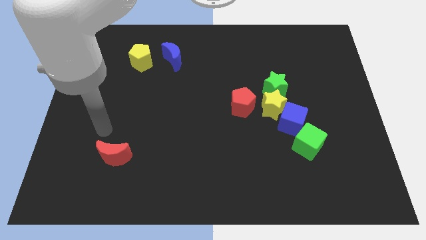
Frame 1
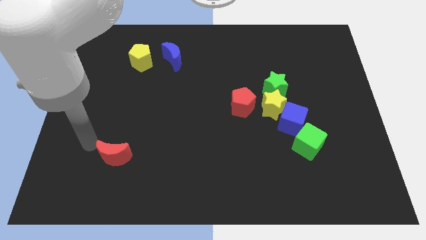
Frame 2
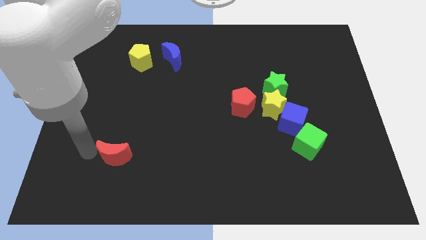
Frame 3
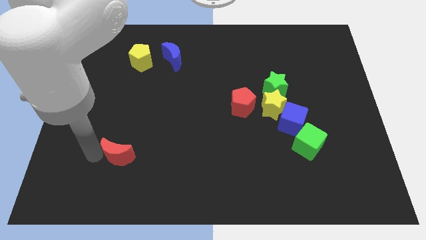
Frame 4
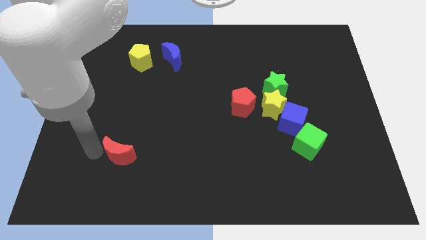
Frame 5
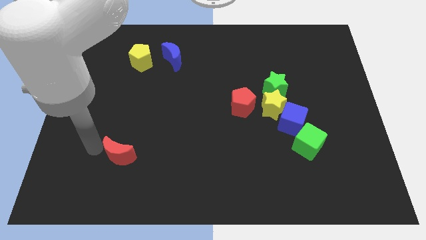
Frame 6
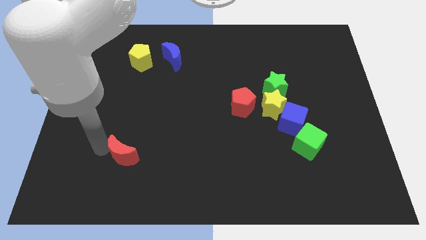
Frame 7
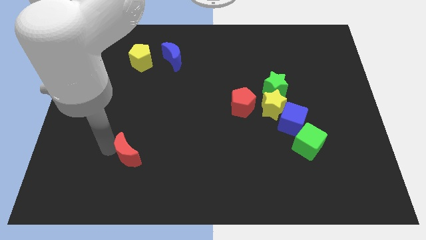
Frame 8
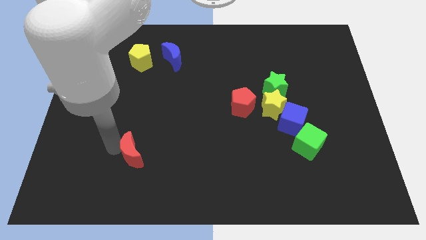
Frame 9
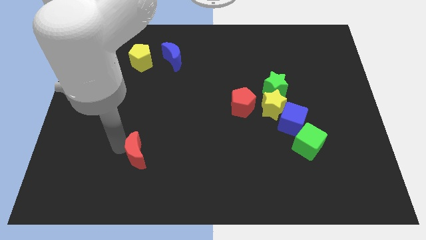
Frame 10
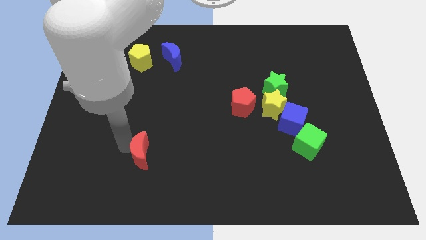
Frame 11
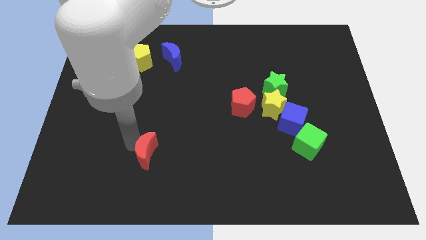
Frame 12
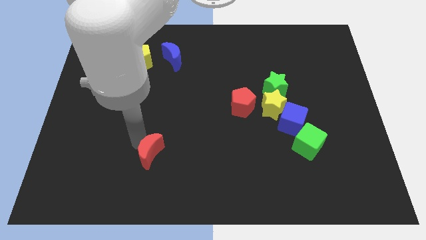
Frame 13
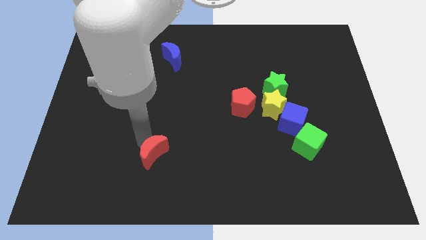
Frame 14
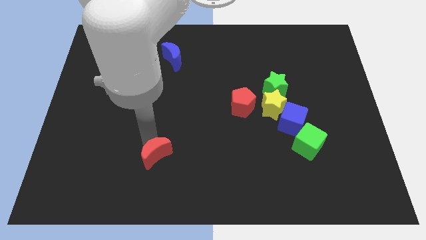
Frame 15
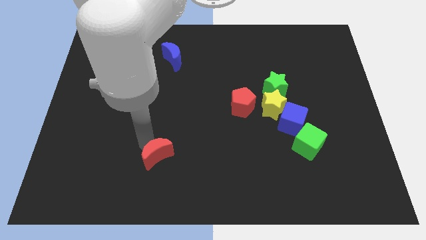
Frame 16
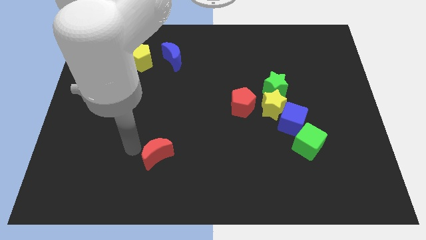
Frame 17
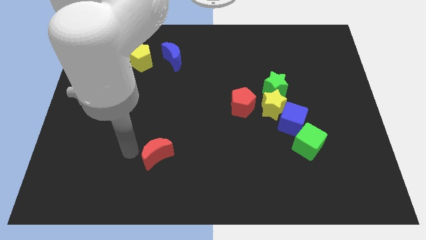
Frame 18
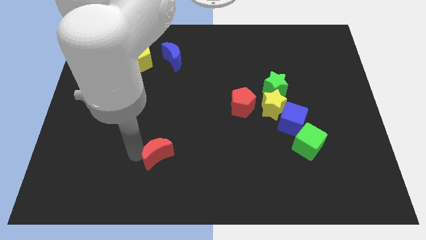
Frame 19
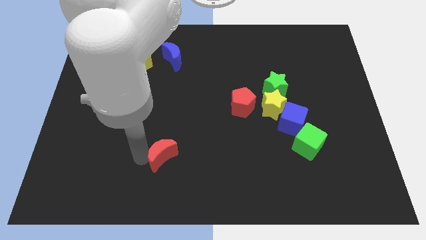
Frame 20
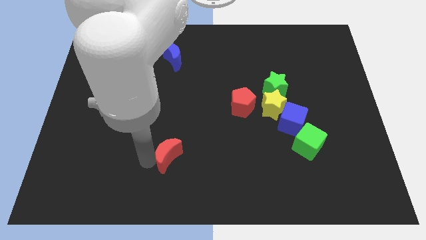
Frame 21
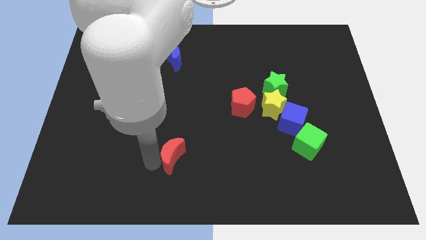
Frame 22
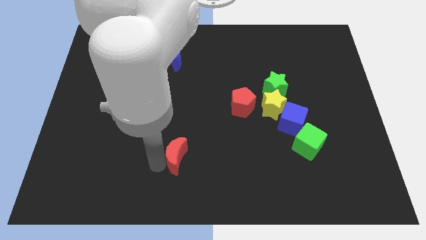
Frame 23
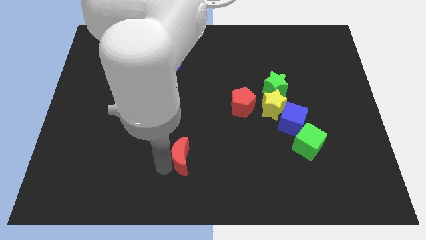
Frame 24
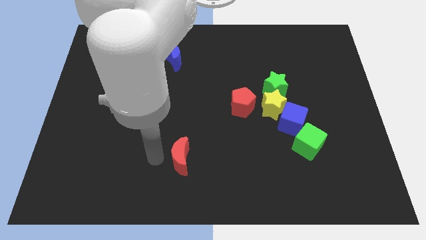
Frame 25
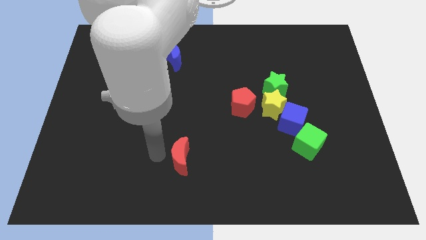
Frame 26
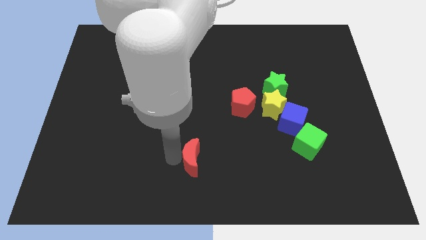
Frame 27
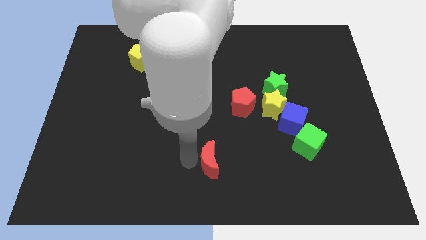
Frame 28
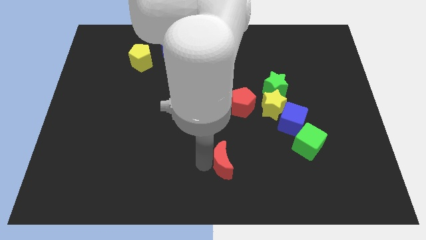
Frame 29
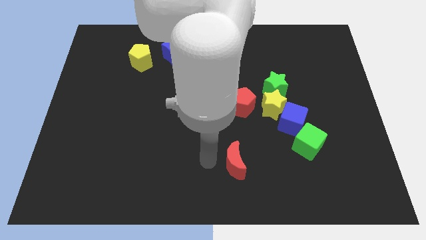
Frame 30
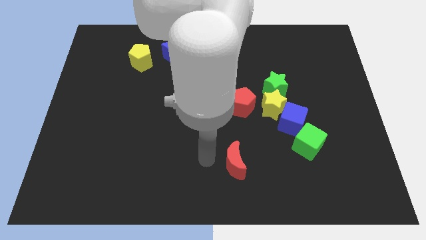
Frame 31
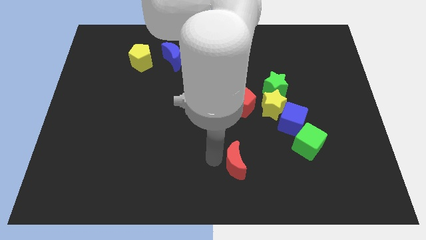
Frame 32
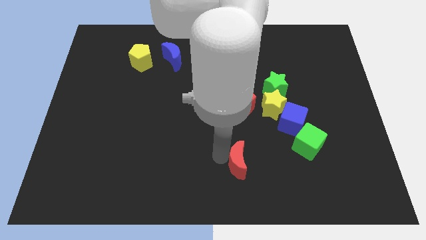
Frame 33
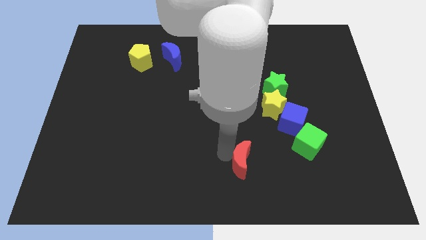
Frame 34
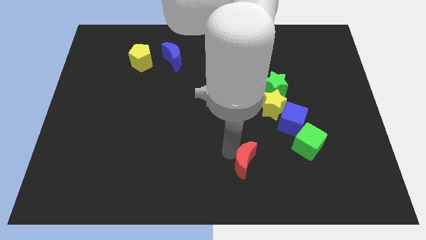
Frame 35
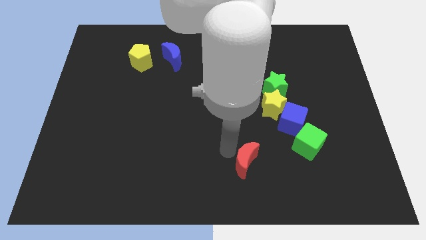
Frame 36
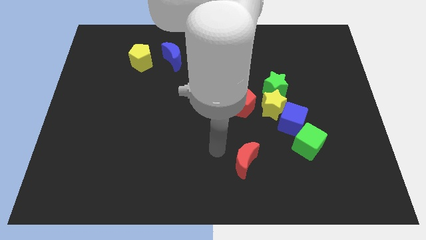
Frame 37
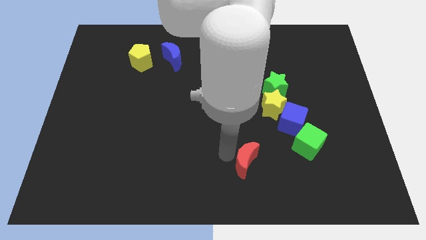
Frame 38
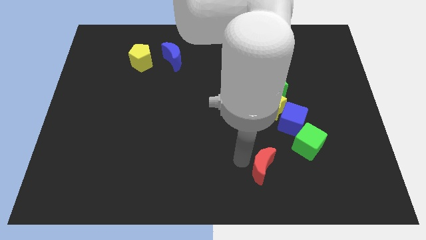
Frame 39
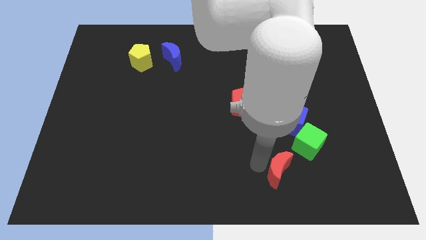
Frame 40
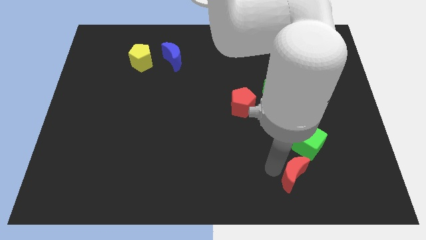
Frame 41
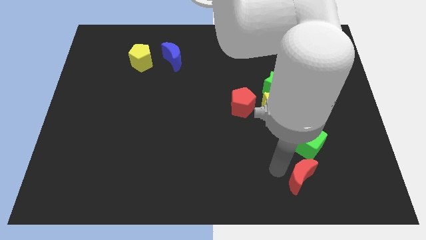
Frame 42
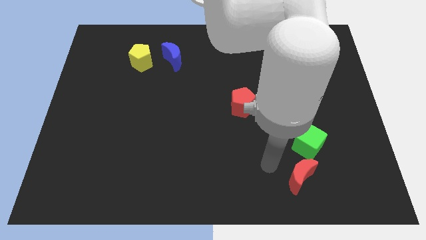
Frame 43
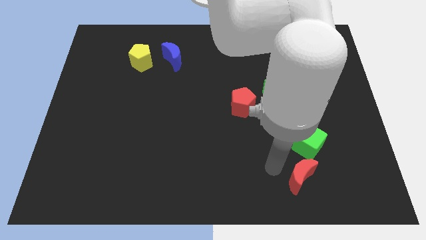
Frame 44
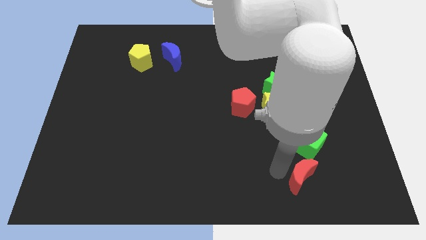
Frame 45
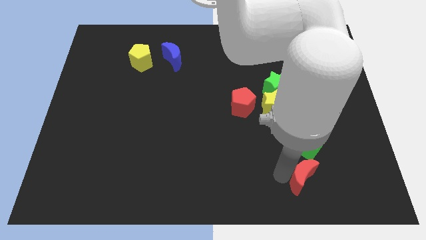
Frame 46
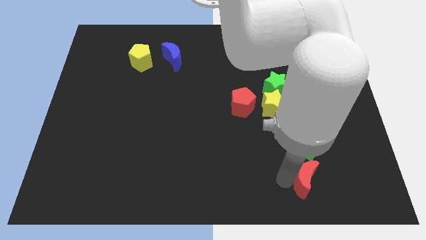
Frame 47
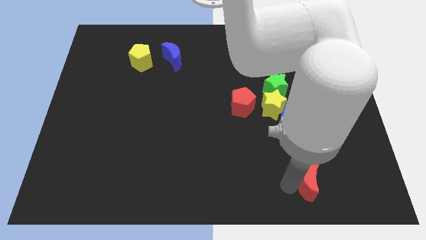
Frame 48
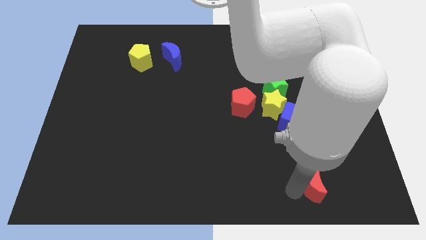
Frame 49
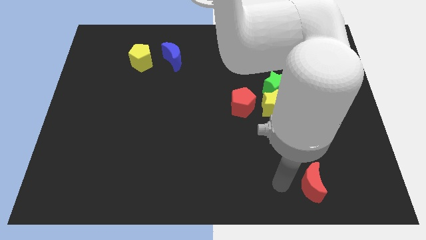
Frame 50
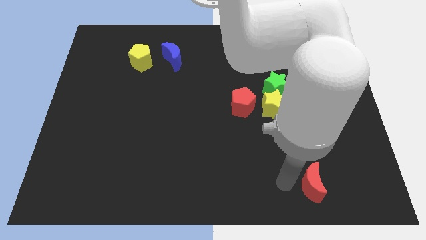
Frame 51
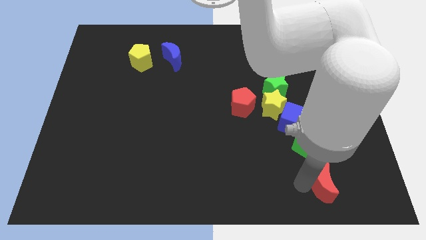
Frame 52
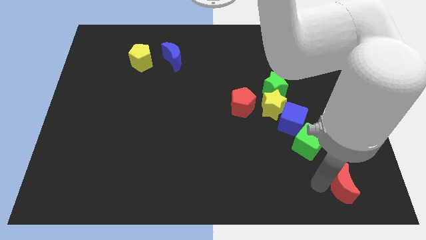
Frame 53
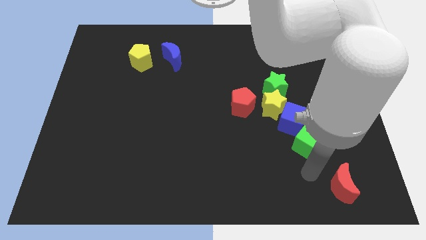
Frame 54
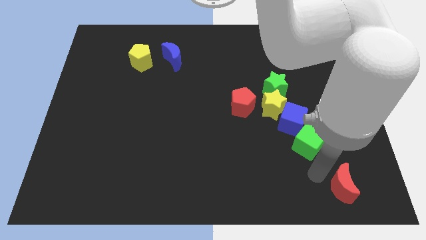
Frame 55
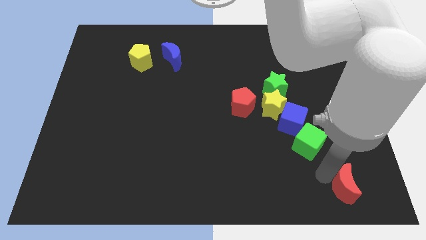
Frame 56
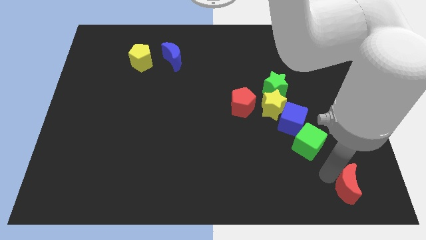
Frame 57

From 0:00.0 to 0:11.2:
push the red moon to the bottom right corner

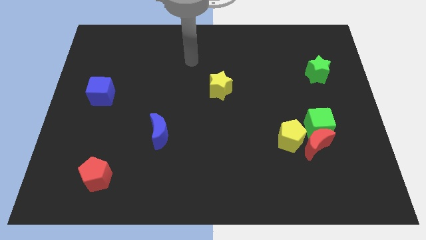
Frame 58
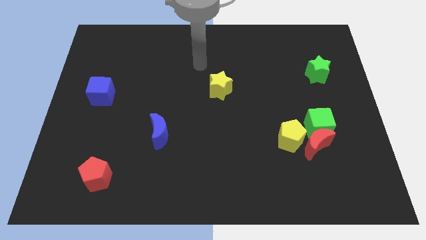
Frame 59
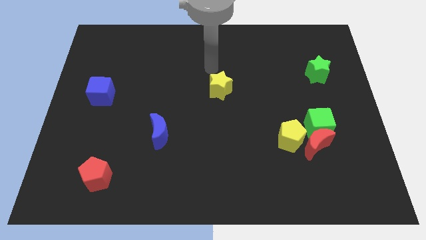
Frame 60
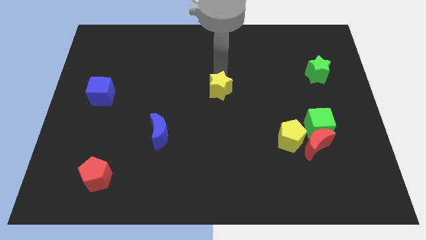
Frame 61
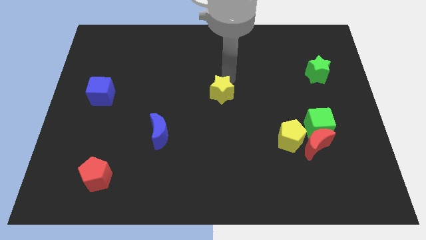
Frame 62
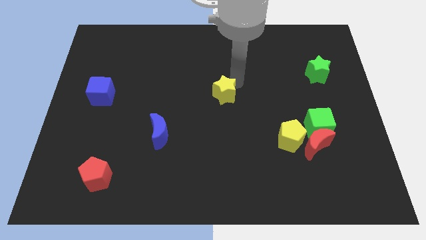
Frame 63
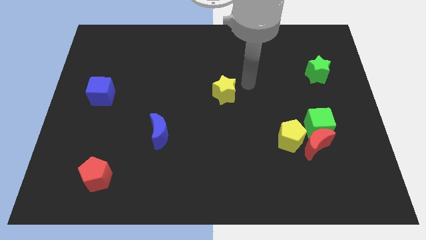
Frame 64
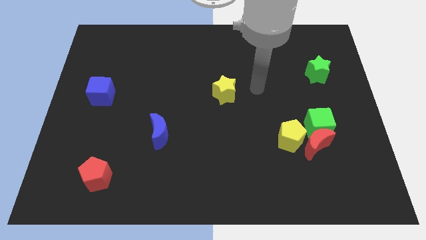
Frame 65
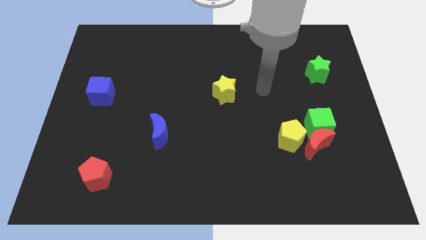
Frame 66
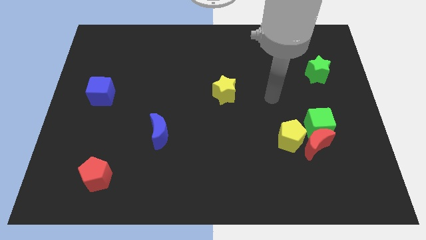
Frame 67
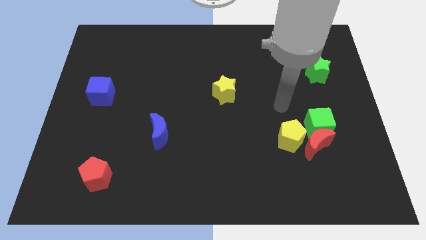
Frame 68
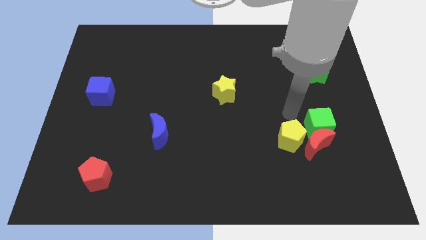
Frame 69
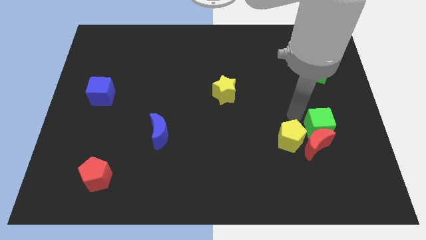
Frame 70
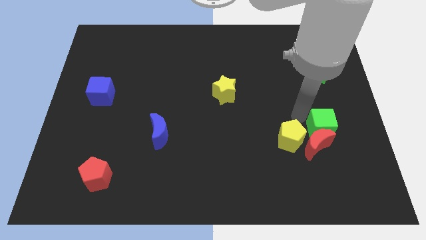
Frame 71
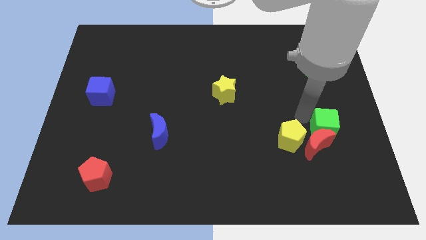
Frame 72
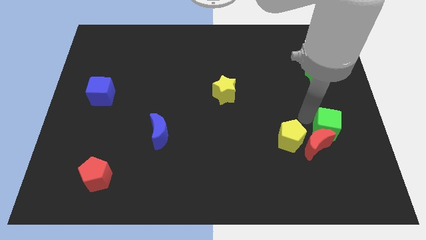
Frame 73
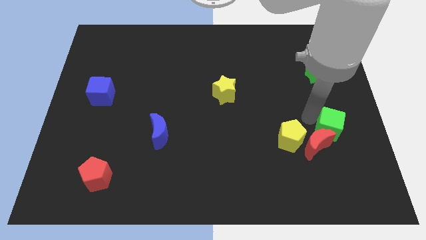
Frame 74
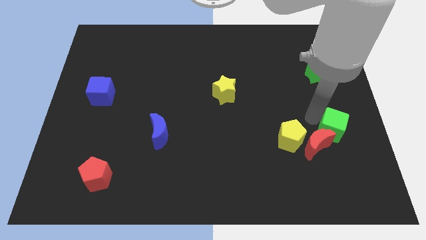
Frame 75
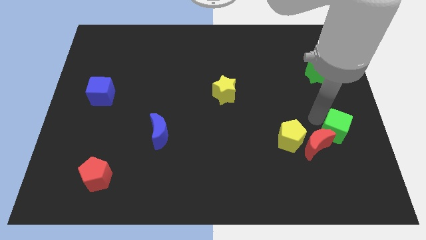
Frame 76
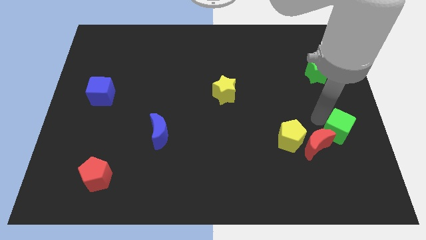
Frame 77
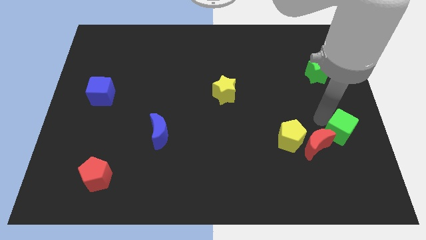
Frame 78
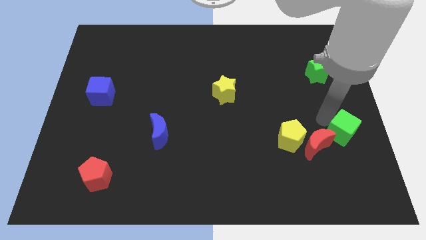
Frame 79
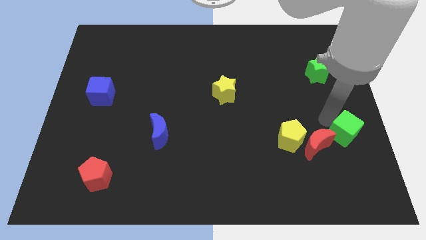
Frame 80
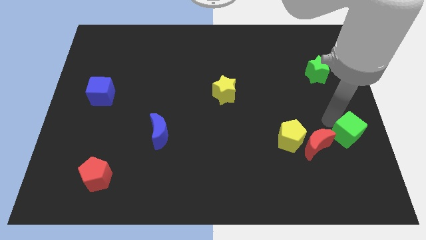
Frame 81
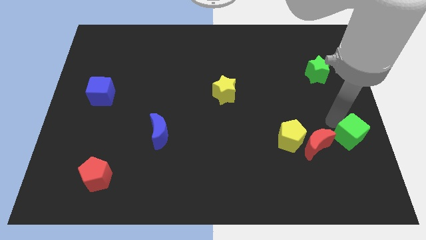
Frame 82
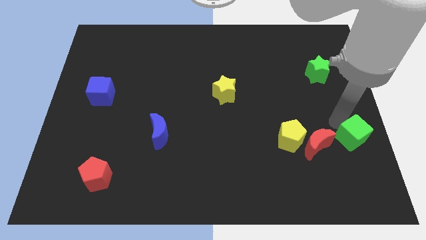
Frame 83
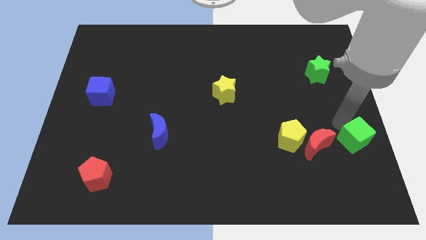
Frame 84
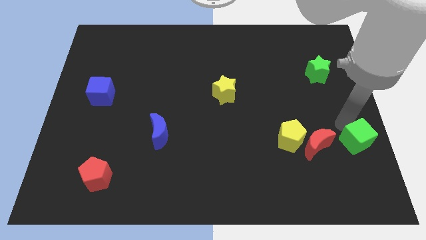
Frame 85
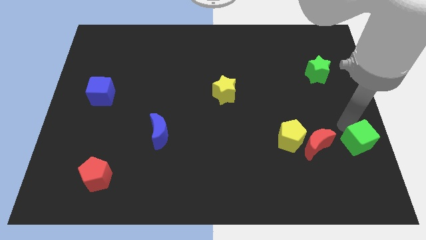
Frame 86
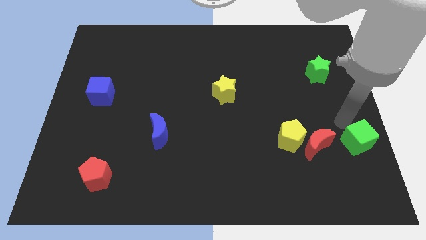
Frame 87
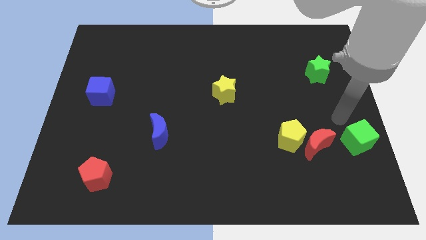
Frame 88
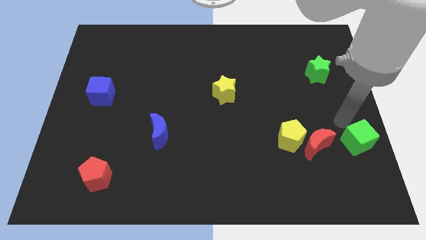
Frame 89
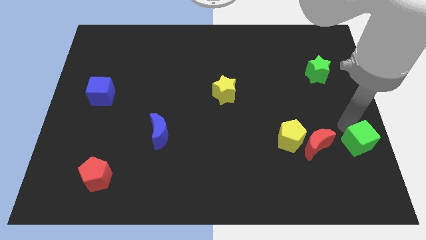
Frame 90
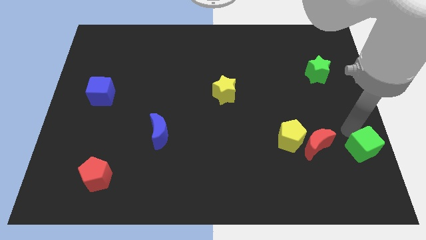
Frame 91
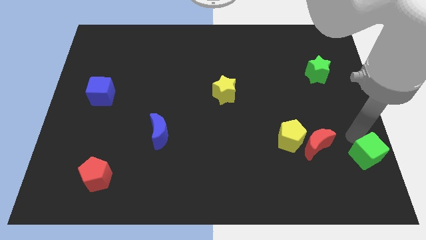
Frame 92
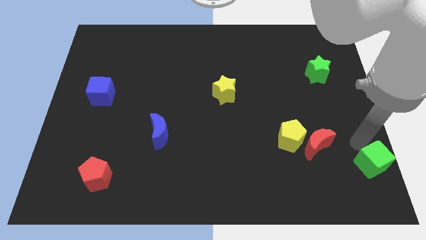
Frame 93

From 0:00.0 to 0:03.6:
move the green cube to the bottom right of the board
